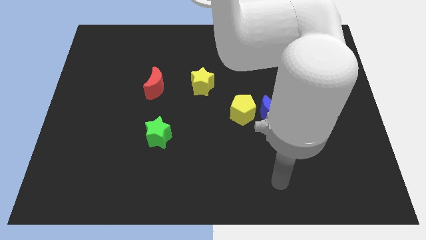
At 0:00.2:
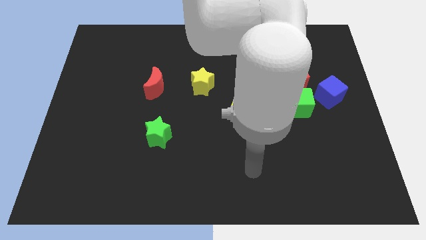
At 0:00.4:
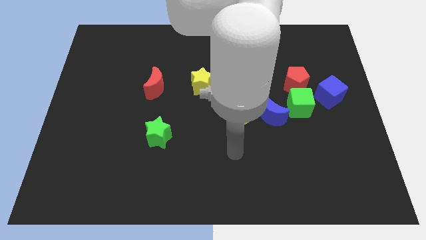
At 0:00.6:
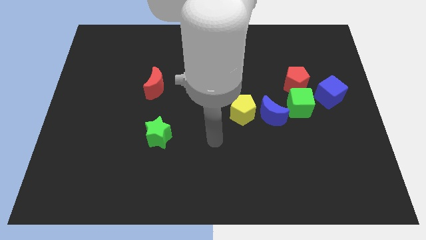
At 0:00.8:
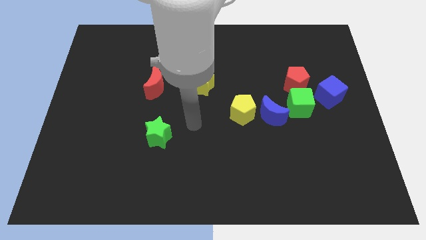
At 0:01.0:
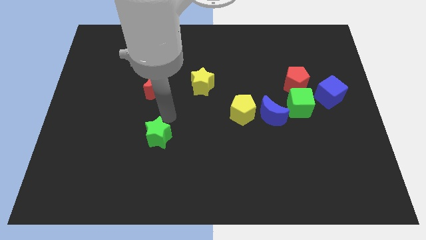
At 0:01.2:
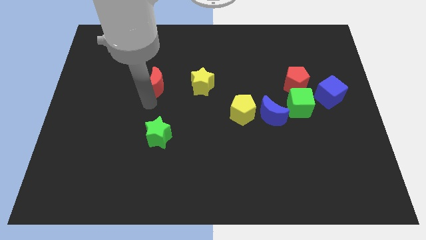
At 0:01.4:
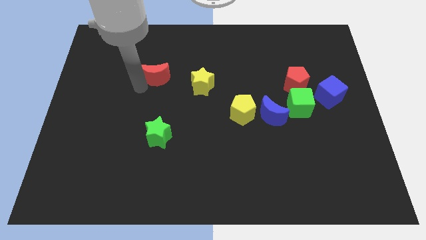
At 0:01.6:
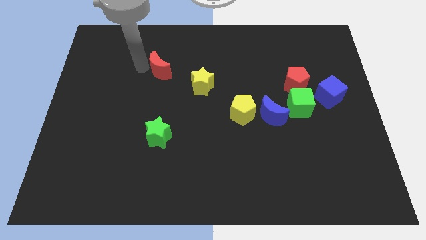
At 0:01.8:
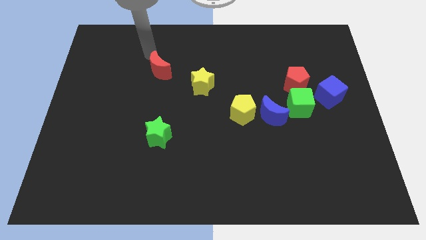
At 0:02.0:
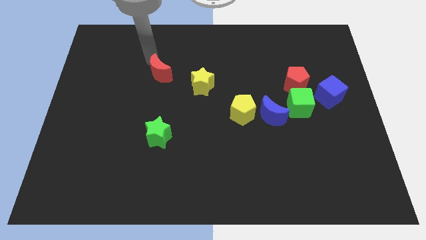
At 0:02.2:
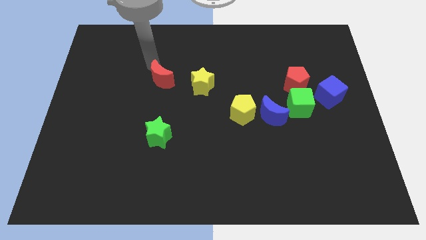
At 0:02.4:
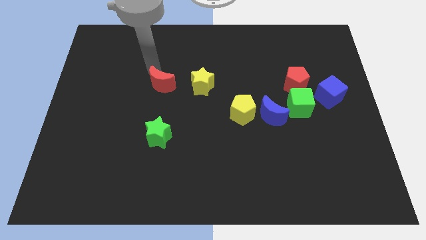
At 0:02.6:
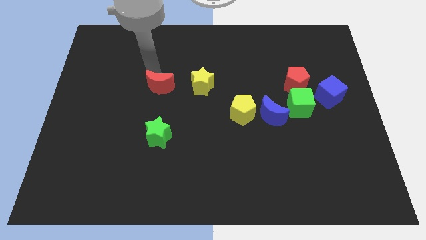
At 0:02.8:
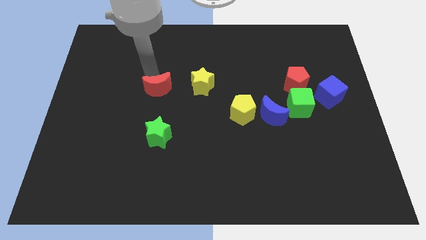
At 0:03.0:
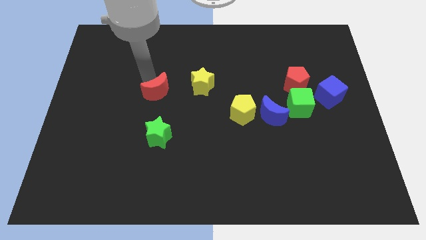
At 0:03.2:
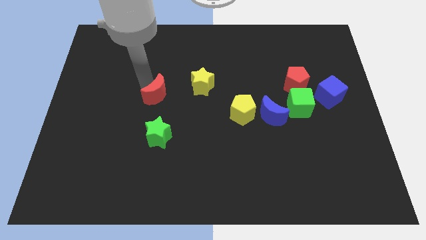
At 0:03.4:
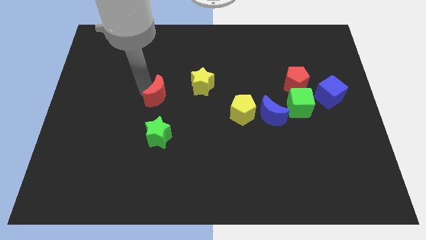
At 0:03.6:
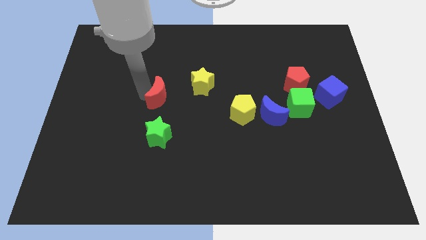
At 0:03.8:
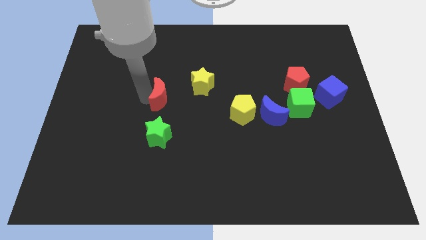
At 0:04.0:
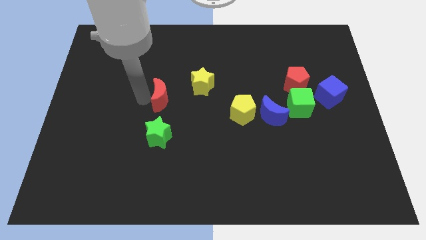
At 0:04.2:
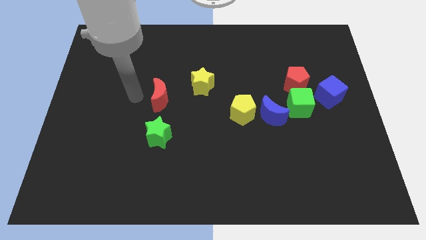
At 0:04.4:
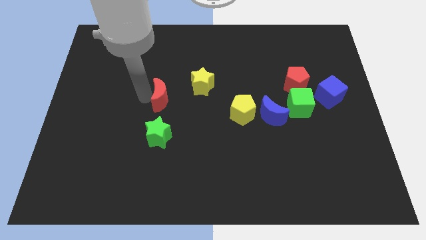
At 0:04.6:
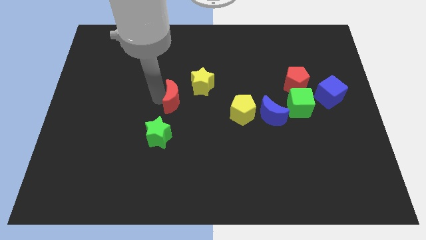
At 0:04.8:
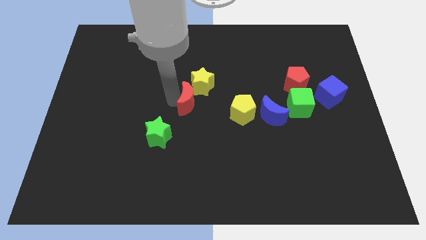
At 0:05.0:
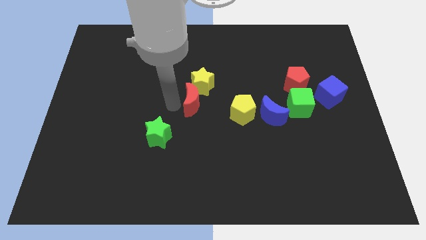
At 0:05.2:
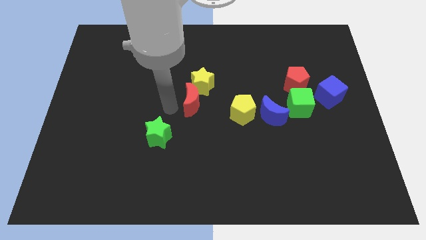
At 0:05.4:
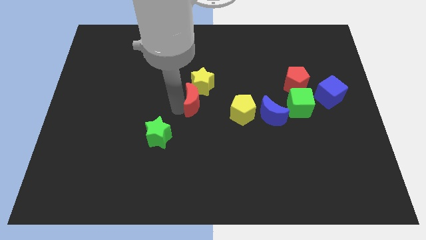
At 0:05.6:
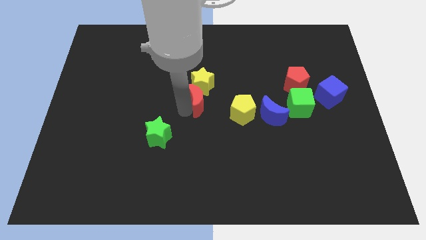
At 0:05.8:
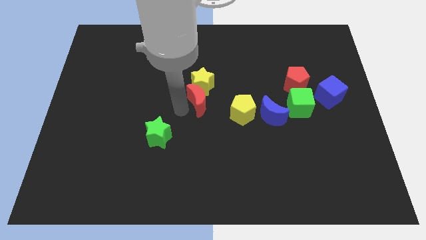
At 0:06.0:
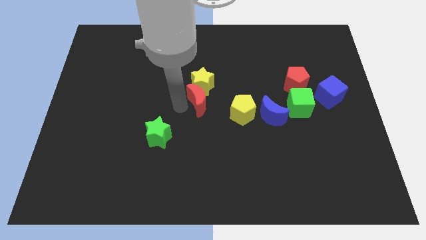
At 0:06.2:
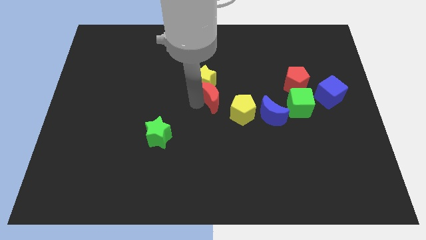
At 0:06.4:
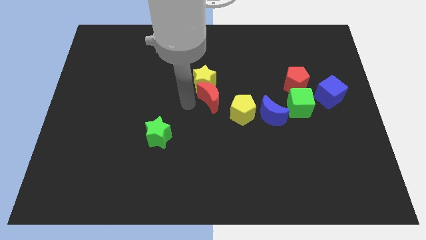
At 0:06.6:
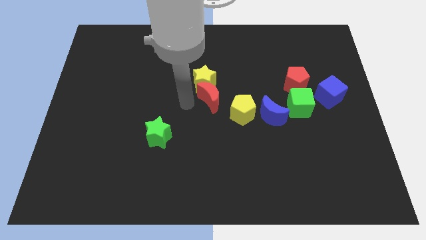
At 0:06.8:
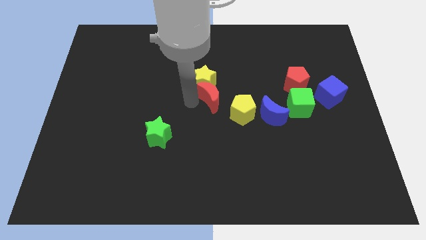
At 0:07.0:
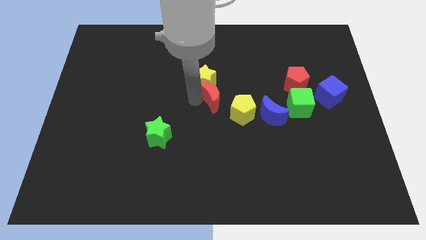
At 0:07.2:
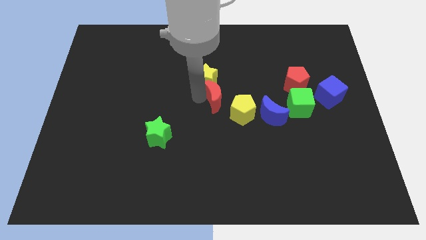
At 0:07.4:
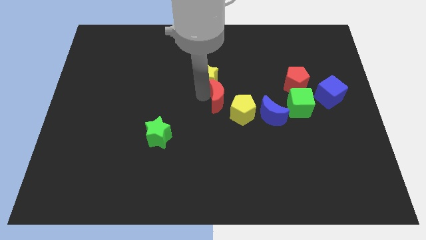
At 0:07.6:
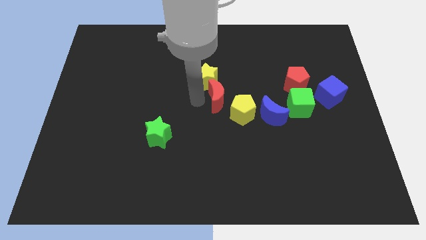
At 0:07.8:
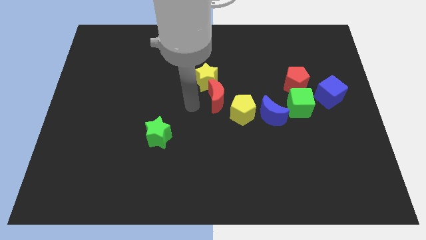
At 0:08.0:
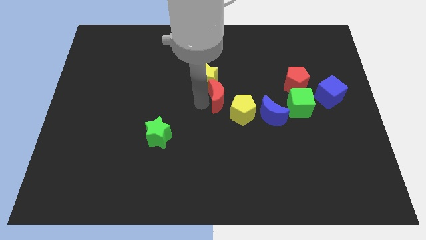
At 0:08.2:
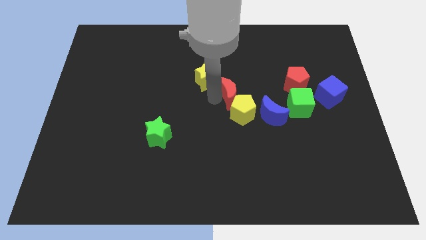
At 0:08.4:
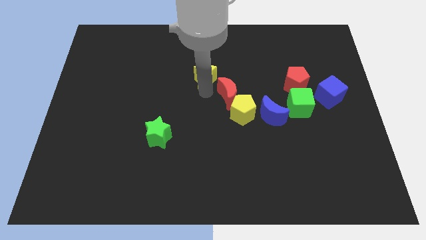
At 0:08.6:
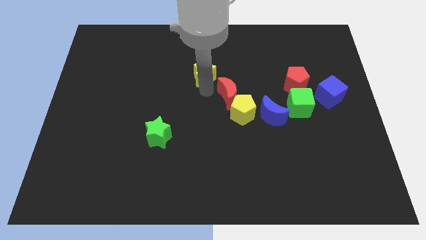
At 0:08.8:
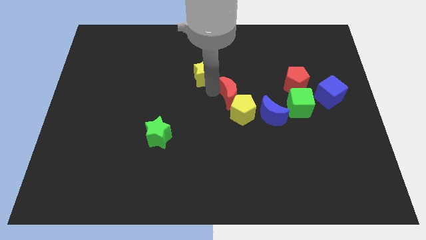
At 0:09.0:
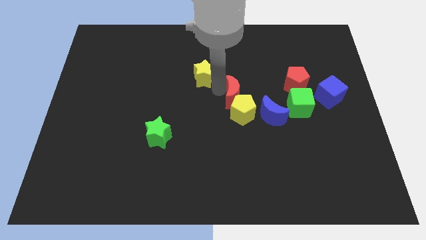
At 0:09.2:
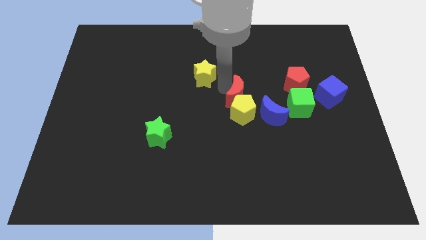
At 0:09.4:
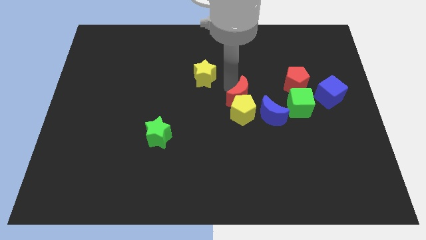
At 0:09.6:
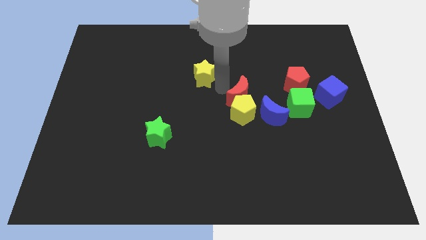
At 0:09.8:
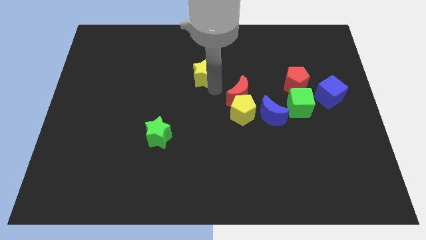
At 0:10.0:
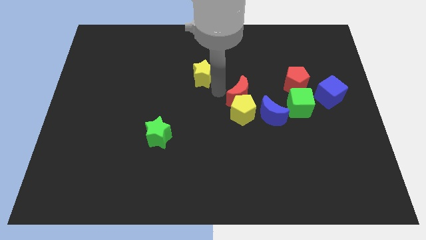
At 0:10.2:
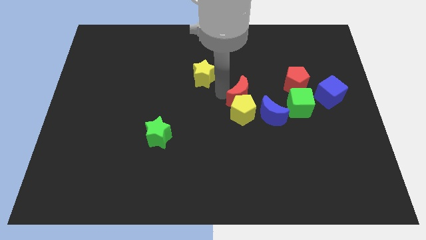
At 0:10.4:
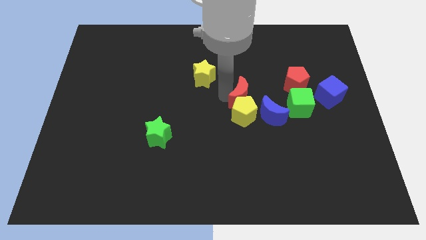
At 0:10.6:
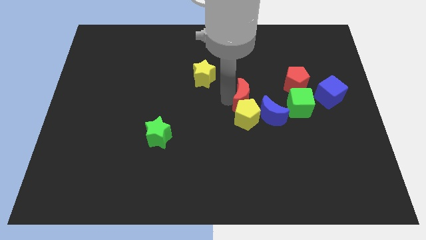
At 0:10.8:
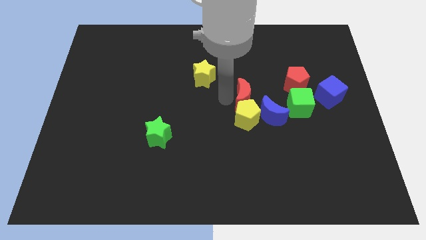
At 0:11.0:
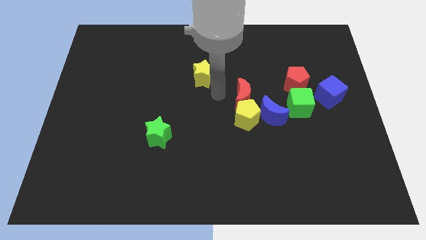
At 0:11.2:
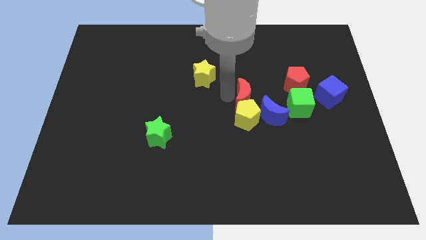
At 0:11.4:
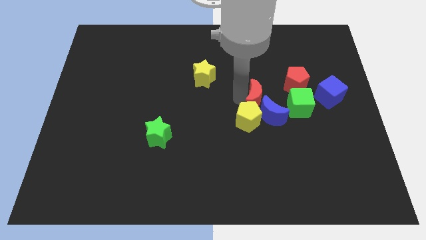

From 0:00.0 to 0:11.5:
move the red moon to the bottom left of the red pentagon

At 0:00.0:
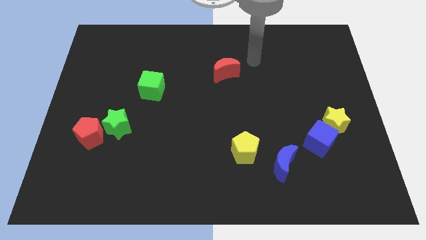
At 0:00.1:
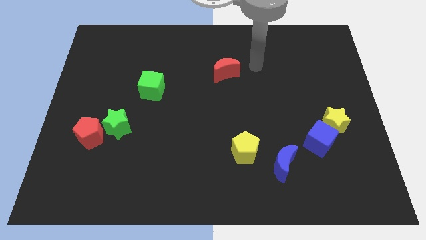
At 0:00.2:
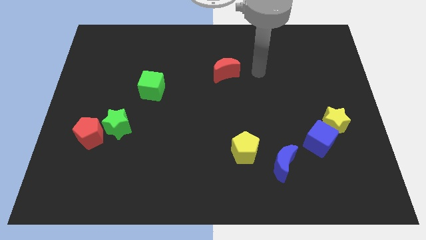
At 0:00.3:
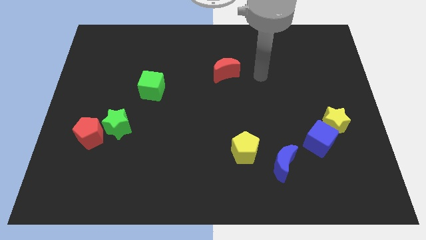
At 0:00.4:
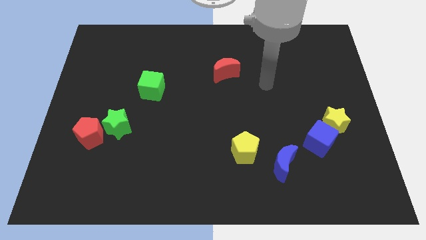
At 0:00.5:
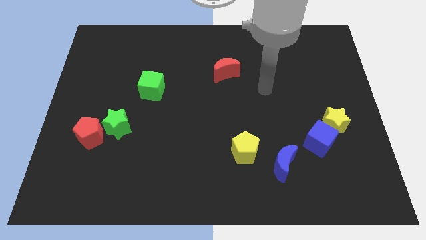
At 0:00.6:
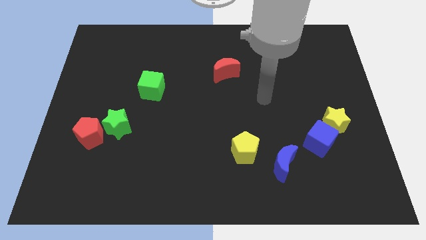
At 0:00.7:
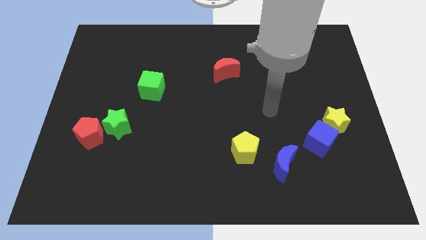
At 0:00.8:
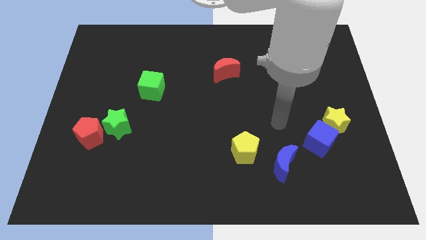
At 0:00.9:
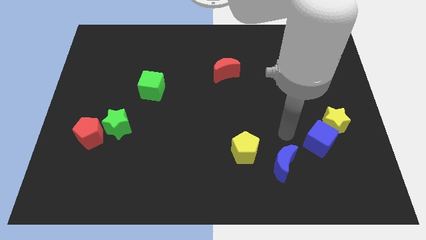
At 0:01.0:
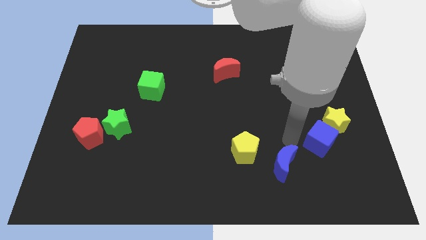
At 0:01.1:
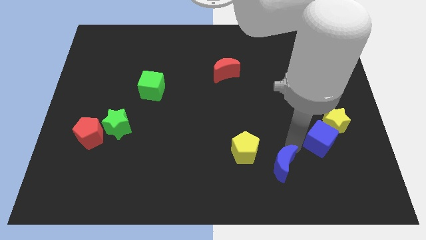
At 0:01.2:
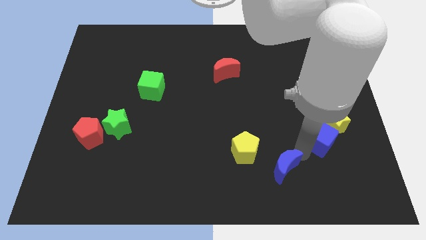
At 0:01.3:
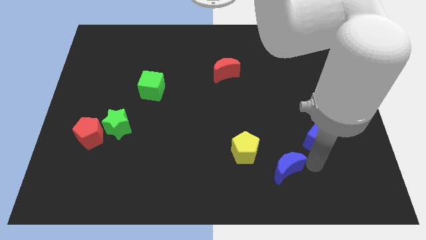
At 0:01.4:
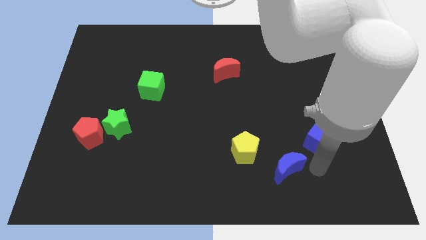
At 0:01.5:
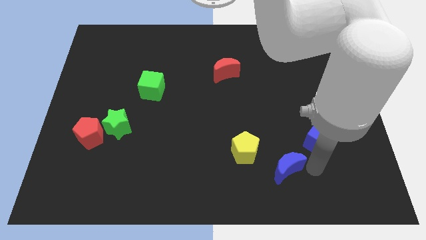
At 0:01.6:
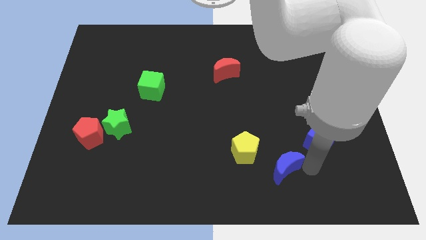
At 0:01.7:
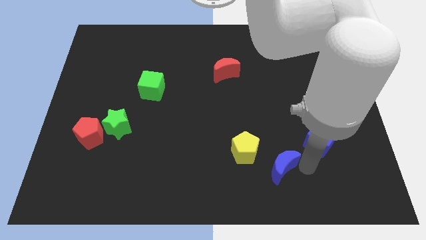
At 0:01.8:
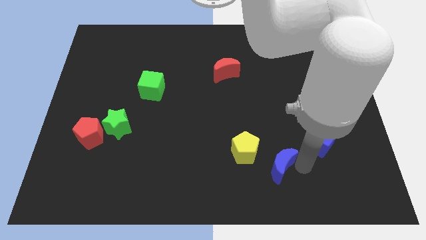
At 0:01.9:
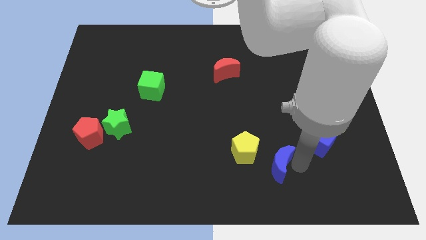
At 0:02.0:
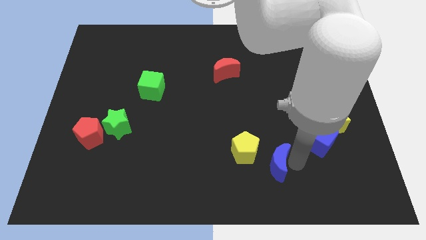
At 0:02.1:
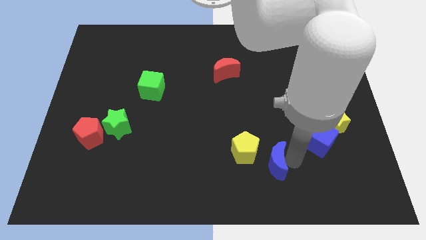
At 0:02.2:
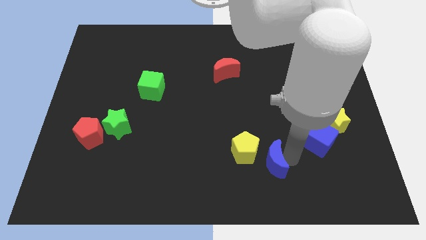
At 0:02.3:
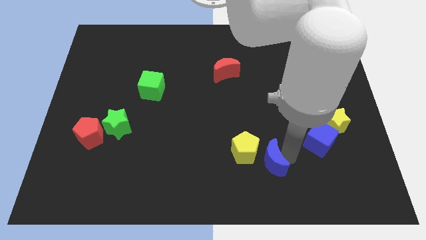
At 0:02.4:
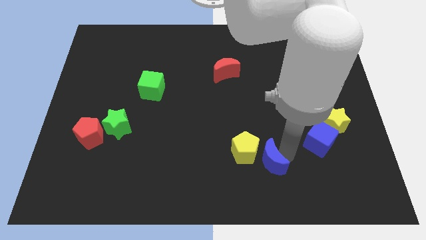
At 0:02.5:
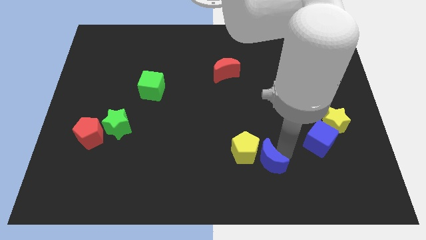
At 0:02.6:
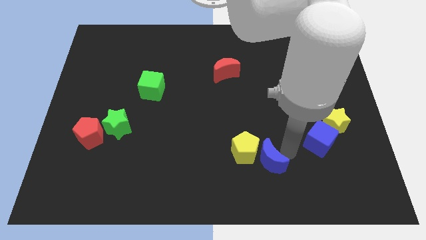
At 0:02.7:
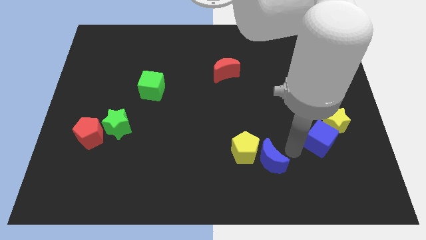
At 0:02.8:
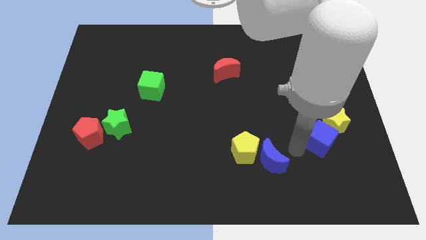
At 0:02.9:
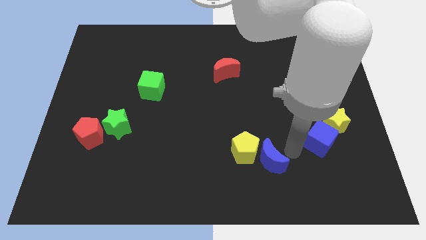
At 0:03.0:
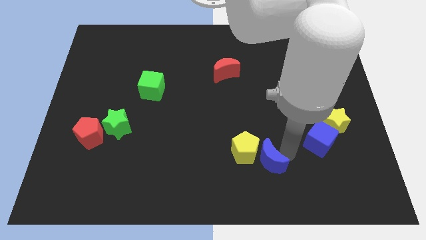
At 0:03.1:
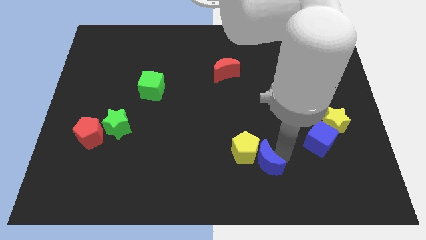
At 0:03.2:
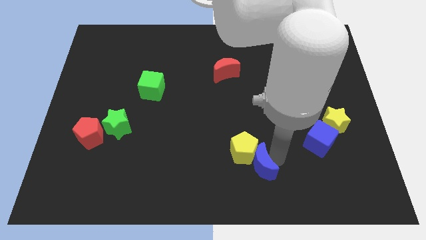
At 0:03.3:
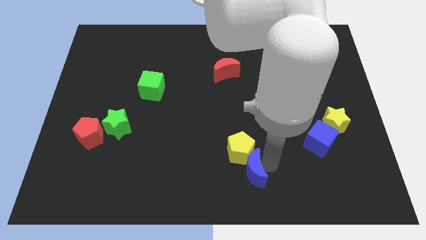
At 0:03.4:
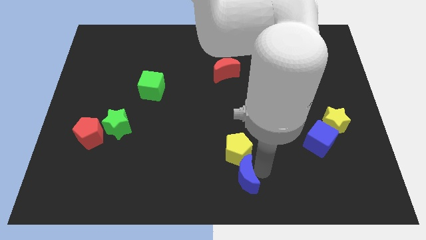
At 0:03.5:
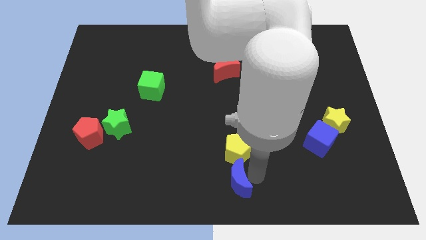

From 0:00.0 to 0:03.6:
slide the blue moon diagonally down and to the left of the yellow pentagon
